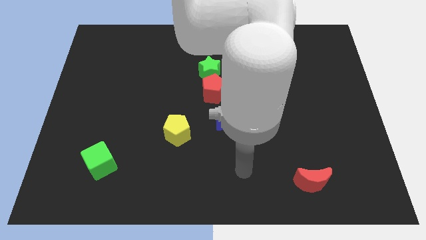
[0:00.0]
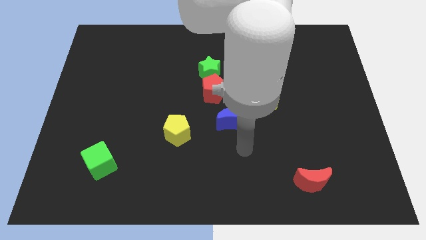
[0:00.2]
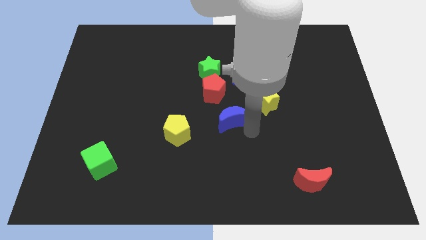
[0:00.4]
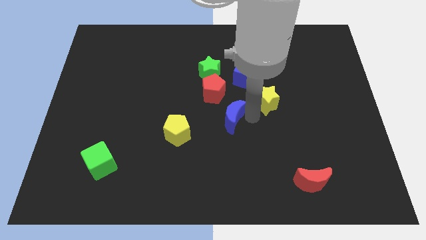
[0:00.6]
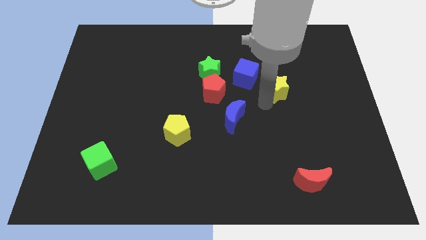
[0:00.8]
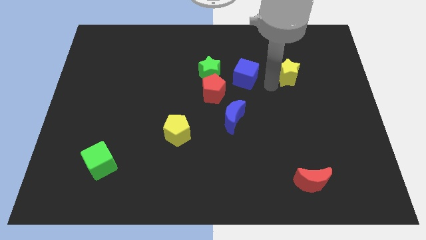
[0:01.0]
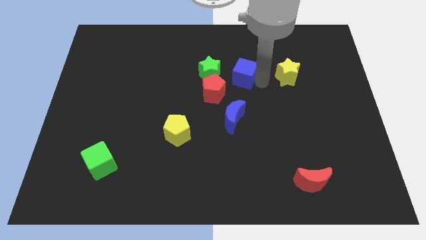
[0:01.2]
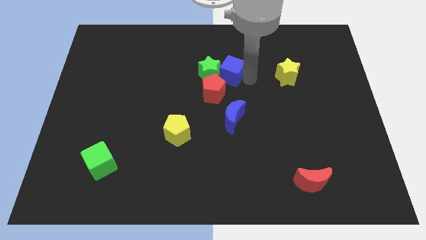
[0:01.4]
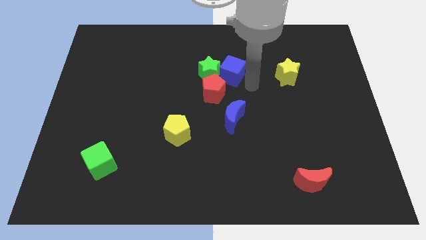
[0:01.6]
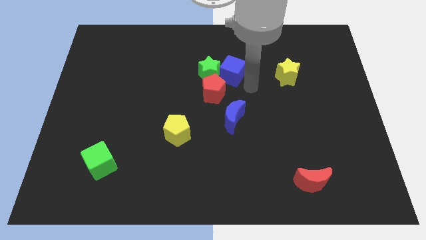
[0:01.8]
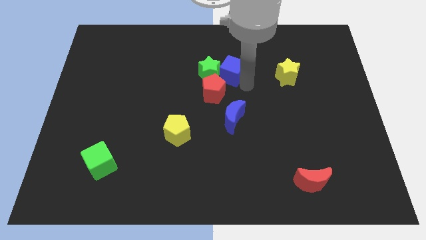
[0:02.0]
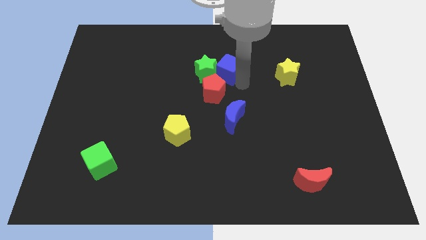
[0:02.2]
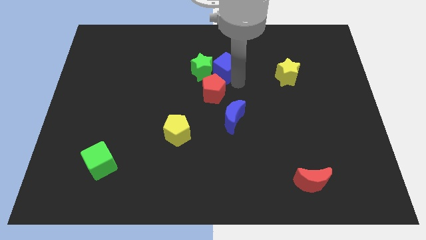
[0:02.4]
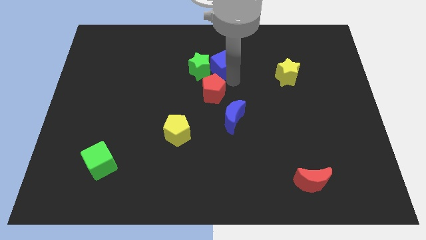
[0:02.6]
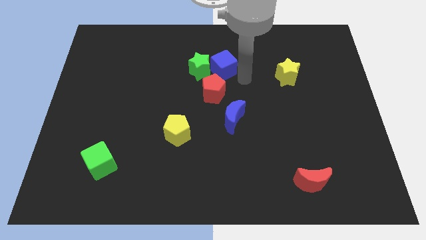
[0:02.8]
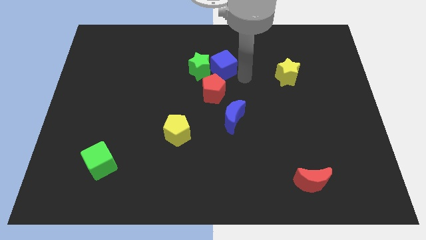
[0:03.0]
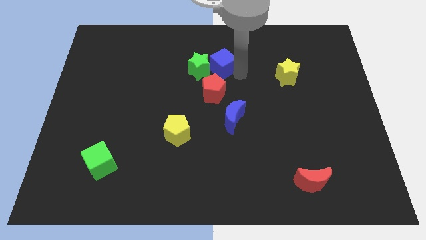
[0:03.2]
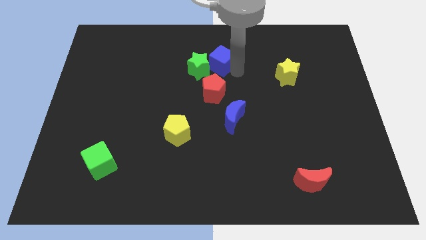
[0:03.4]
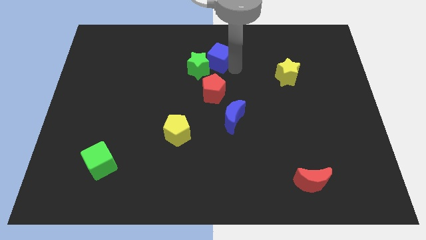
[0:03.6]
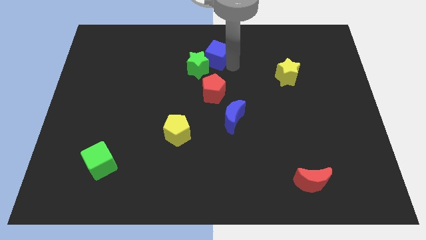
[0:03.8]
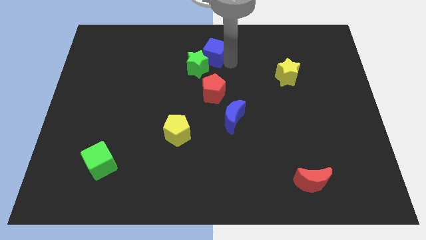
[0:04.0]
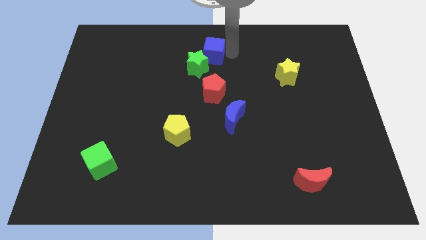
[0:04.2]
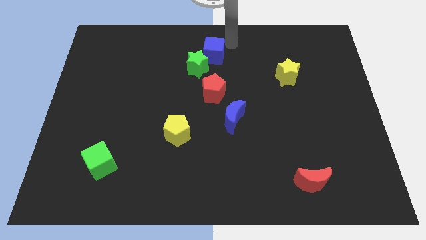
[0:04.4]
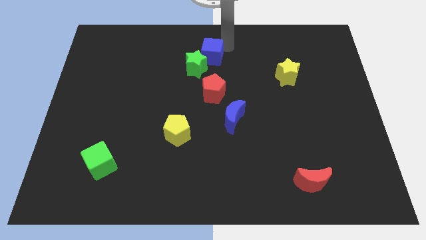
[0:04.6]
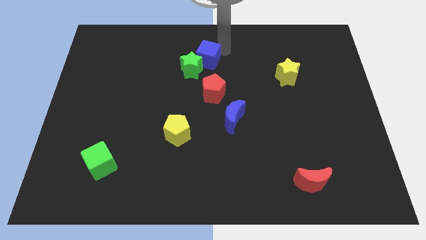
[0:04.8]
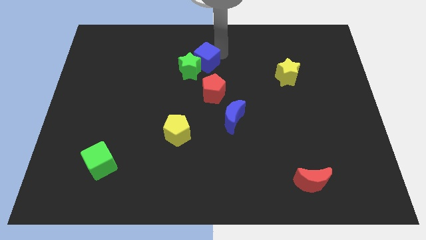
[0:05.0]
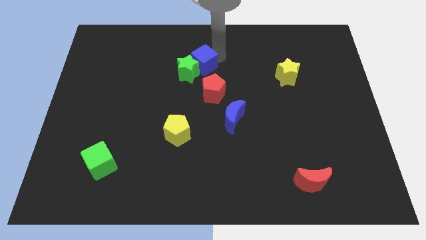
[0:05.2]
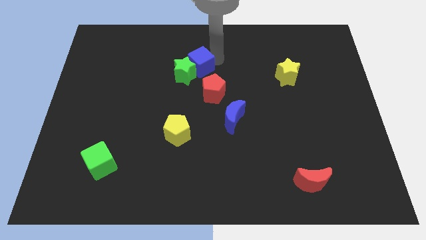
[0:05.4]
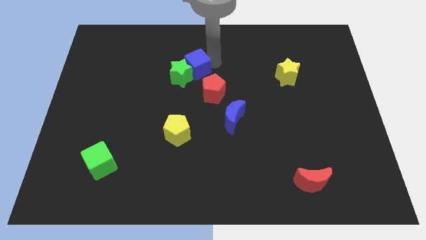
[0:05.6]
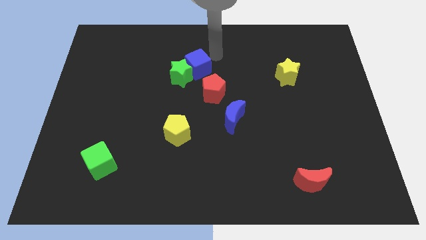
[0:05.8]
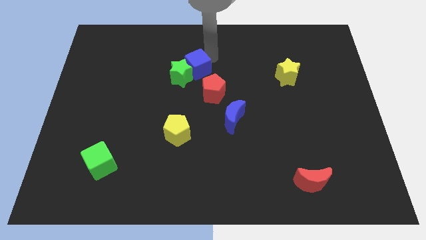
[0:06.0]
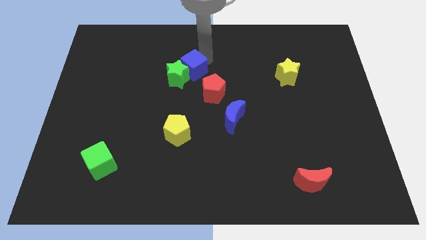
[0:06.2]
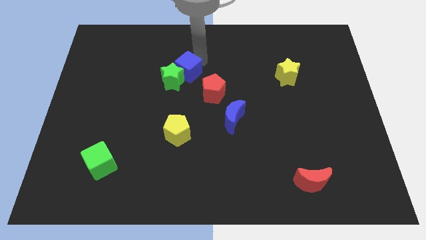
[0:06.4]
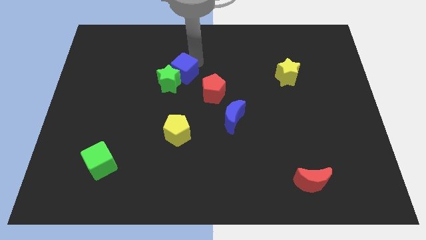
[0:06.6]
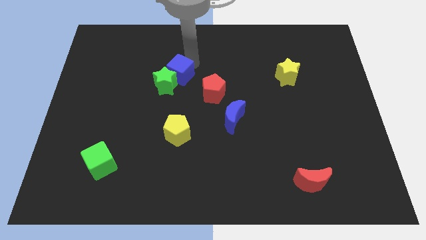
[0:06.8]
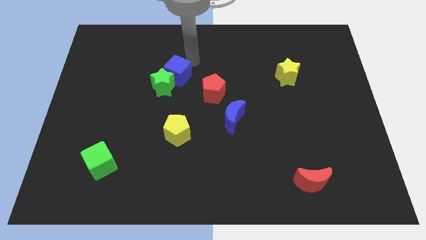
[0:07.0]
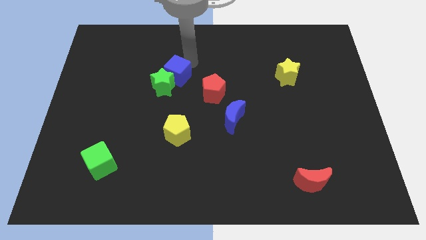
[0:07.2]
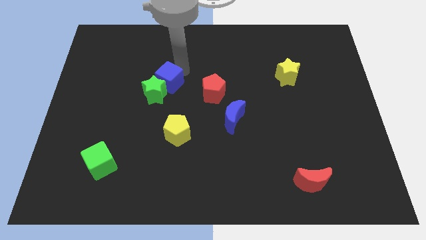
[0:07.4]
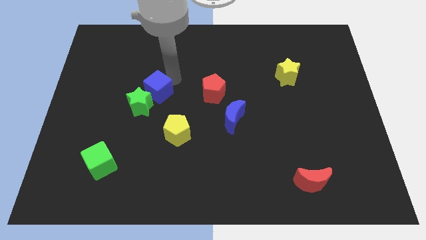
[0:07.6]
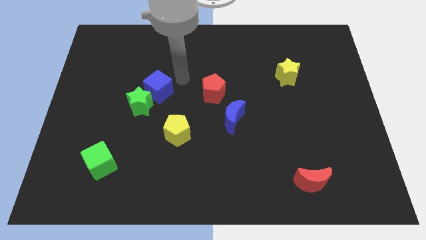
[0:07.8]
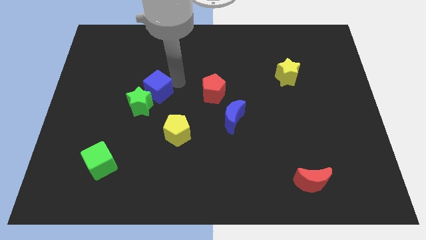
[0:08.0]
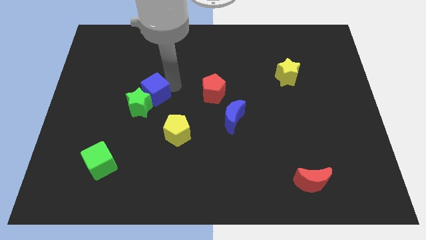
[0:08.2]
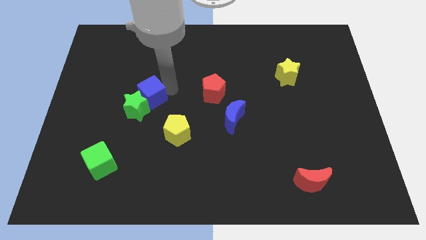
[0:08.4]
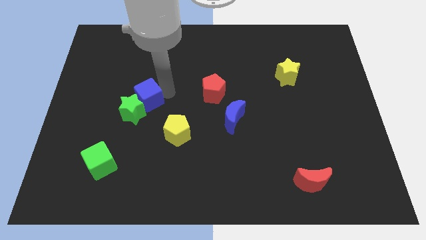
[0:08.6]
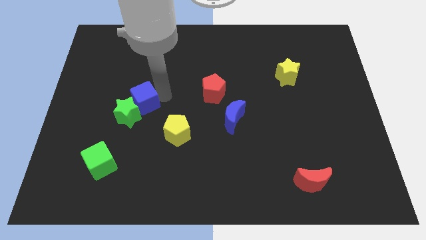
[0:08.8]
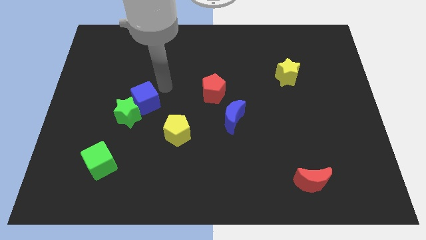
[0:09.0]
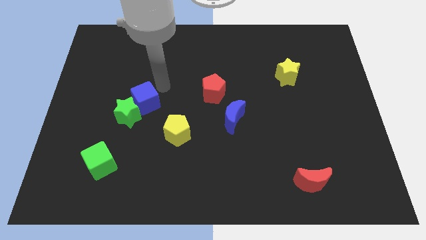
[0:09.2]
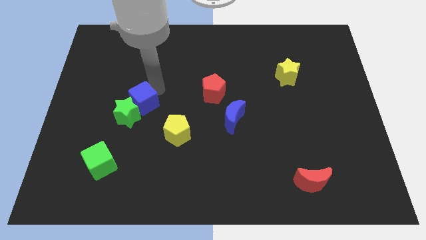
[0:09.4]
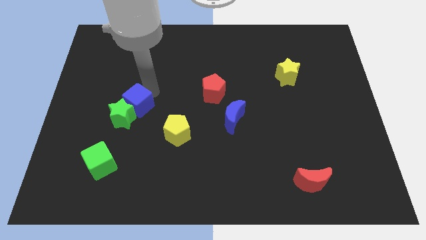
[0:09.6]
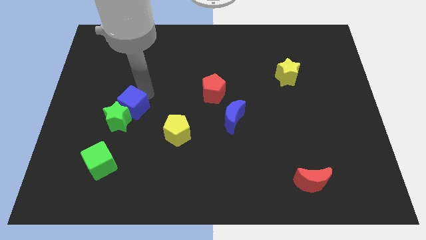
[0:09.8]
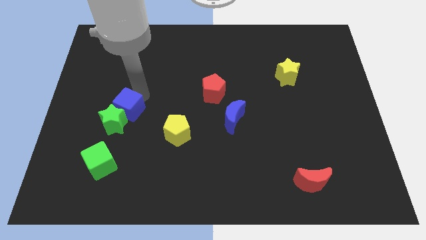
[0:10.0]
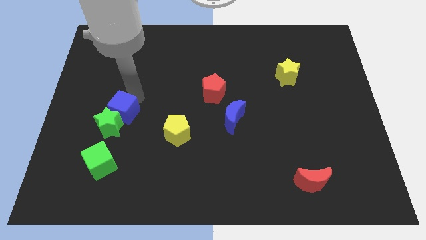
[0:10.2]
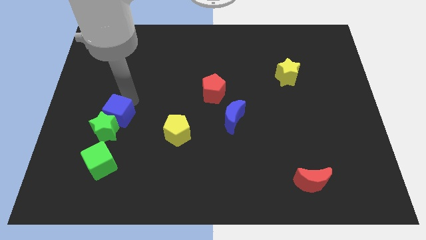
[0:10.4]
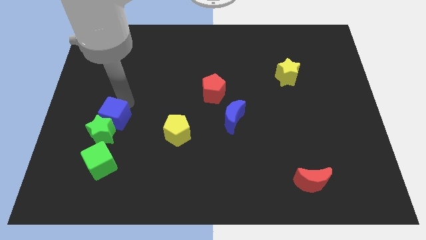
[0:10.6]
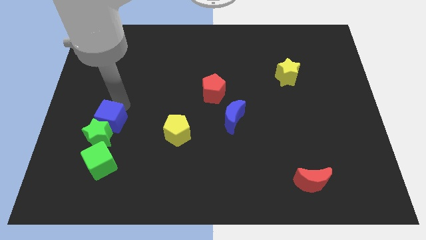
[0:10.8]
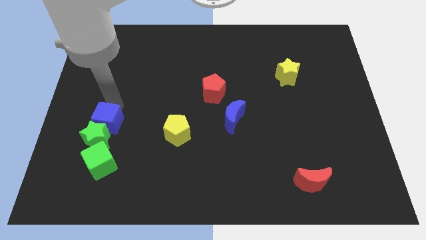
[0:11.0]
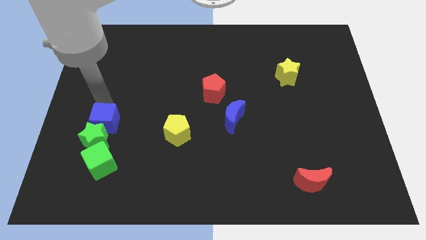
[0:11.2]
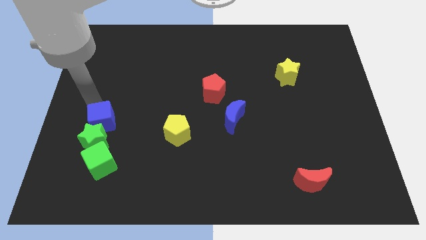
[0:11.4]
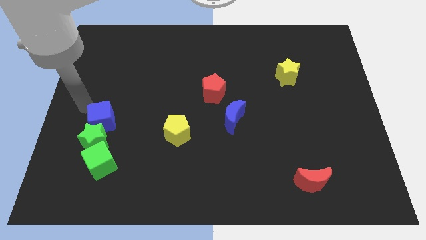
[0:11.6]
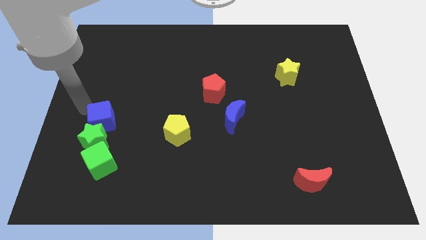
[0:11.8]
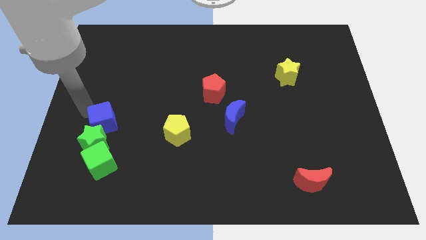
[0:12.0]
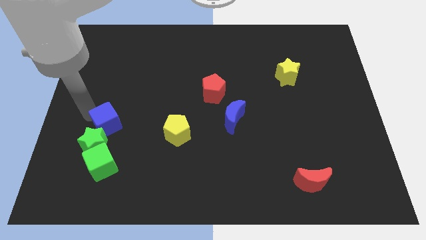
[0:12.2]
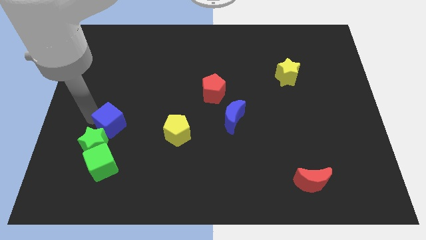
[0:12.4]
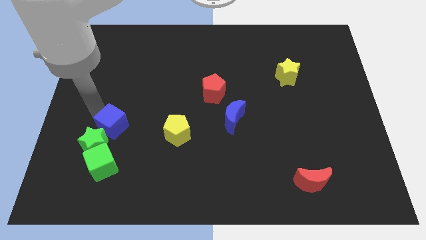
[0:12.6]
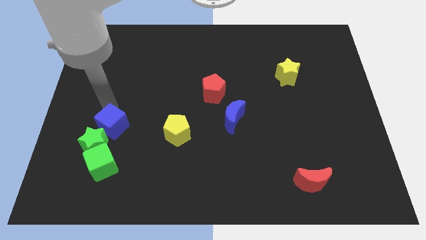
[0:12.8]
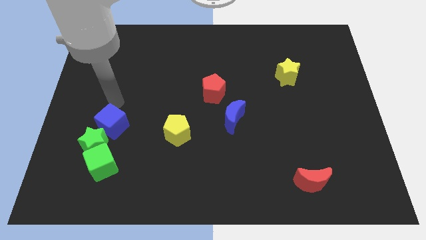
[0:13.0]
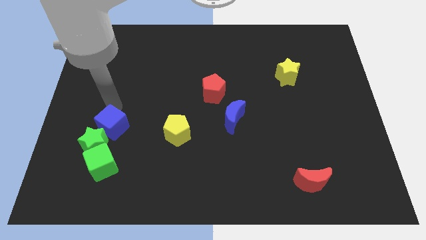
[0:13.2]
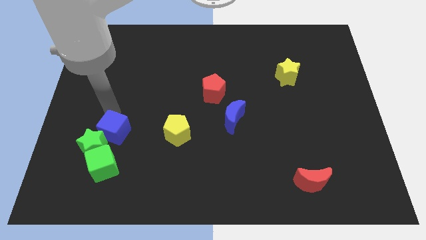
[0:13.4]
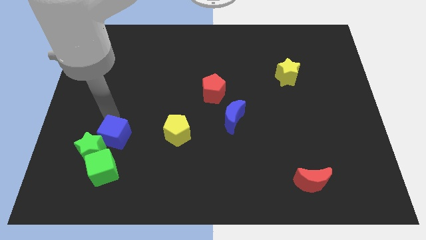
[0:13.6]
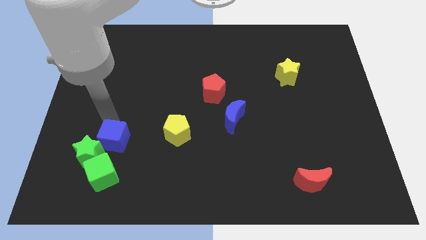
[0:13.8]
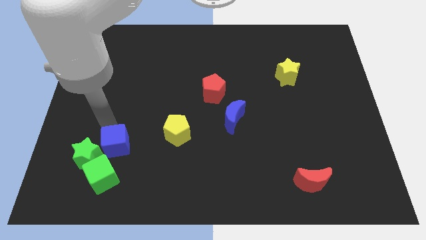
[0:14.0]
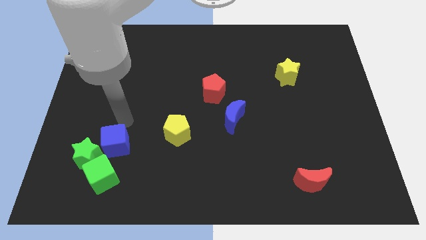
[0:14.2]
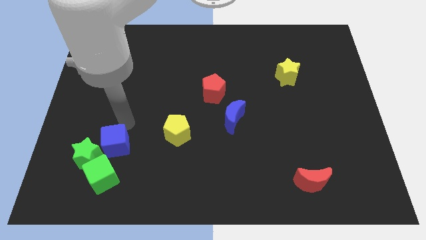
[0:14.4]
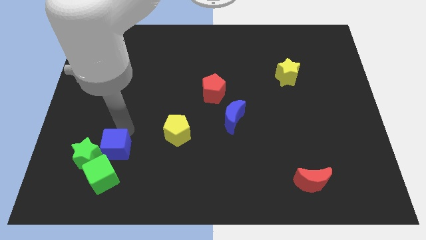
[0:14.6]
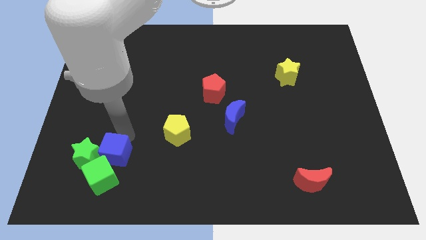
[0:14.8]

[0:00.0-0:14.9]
push the blue cube close to the green cube
